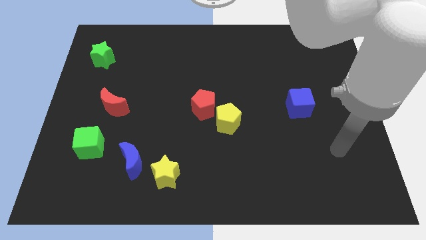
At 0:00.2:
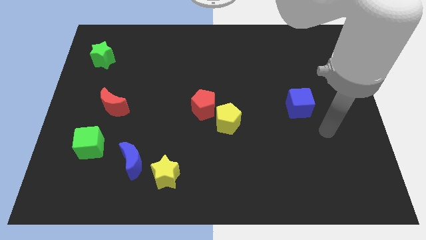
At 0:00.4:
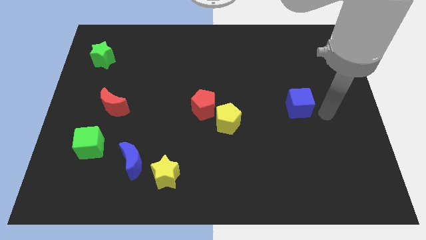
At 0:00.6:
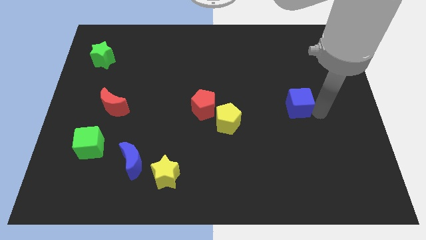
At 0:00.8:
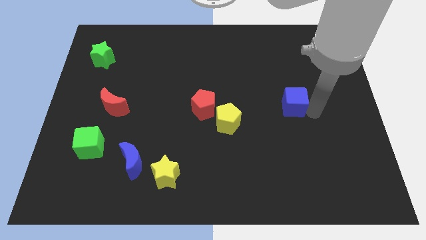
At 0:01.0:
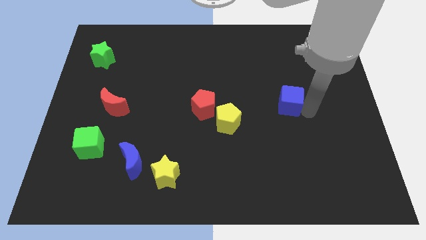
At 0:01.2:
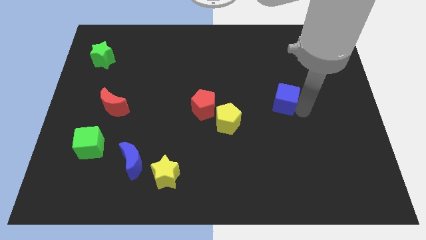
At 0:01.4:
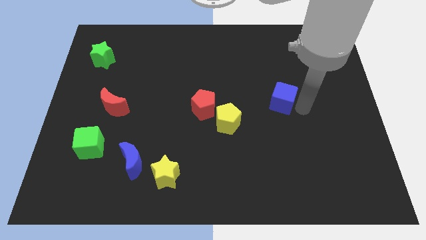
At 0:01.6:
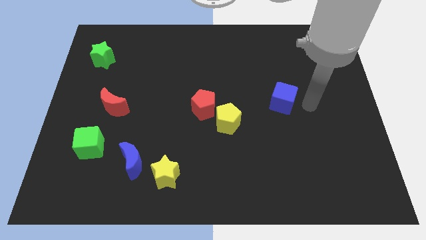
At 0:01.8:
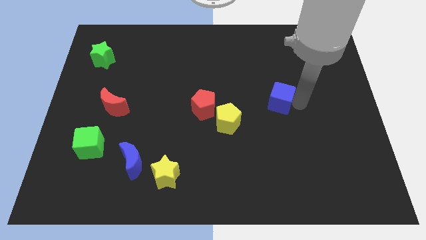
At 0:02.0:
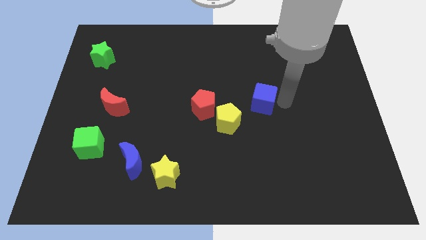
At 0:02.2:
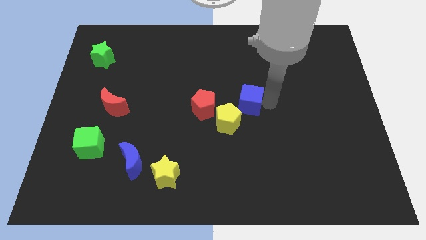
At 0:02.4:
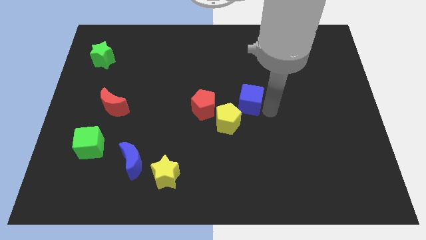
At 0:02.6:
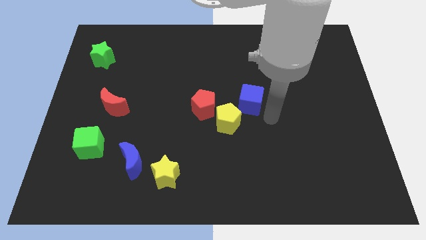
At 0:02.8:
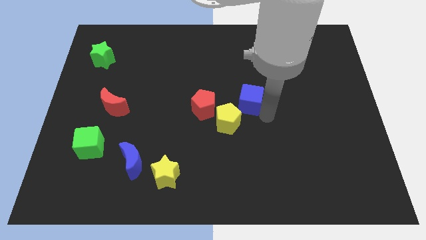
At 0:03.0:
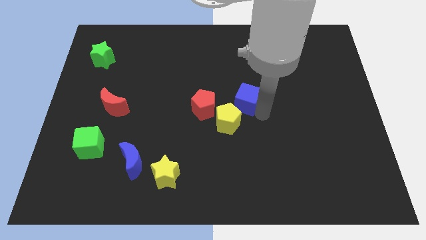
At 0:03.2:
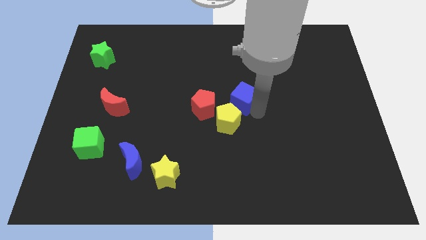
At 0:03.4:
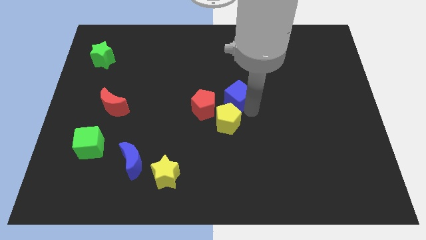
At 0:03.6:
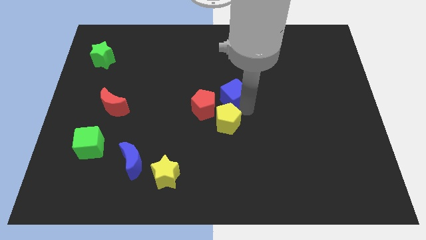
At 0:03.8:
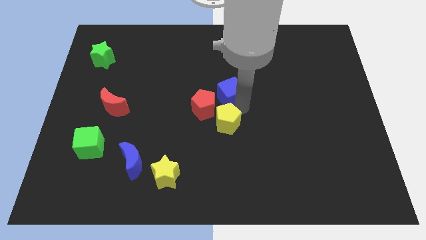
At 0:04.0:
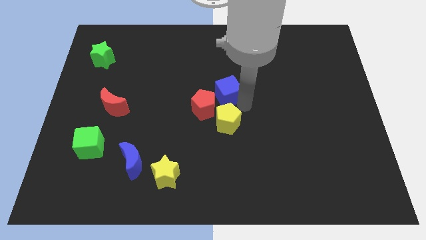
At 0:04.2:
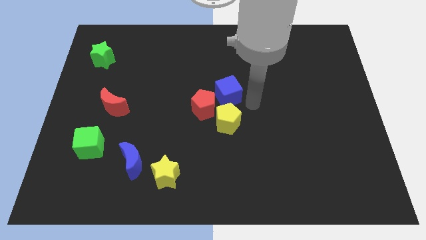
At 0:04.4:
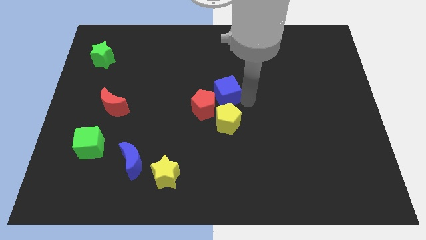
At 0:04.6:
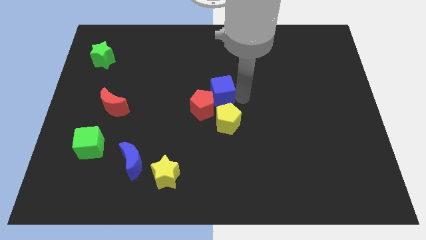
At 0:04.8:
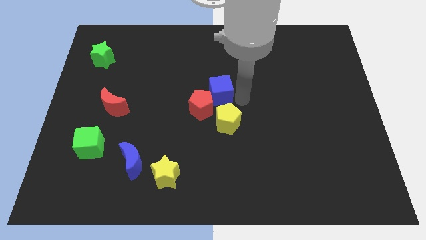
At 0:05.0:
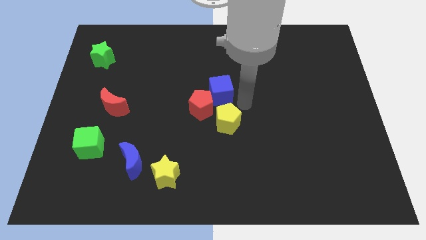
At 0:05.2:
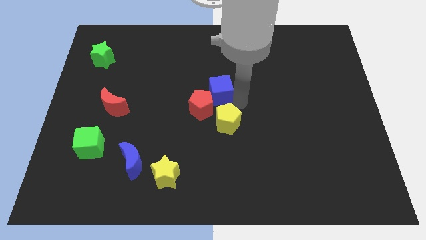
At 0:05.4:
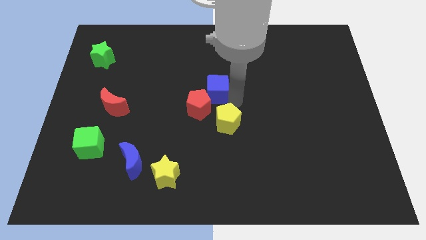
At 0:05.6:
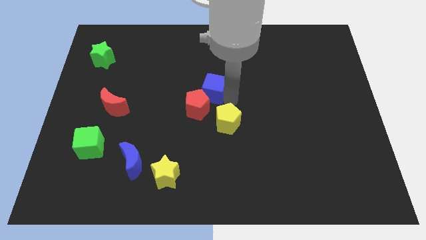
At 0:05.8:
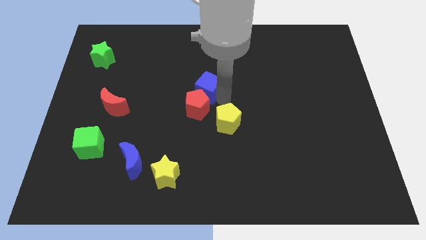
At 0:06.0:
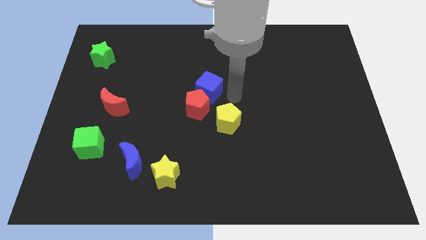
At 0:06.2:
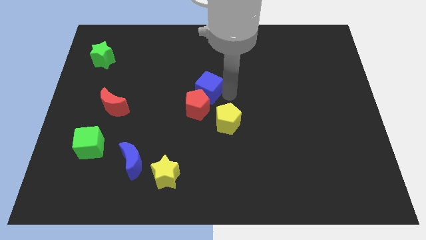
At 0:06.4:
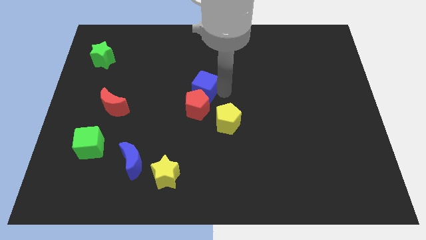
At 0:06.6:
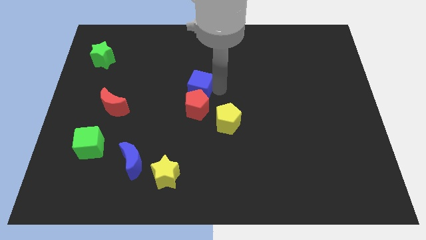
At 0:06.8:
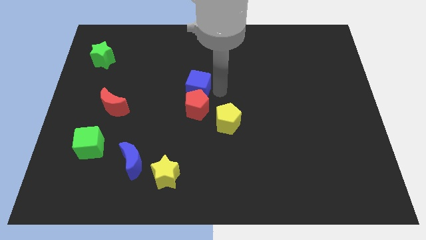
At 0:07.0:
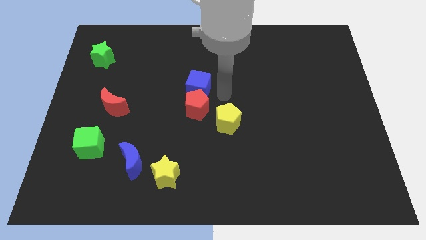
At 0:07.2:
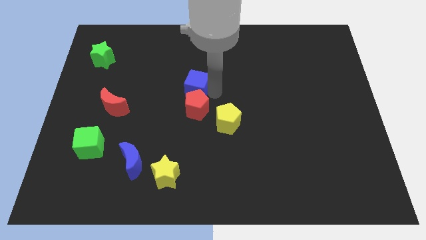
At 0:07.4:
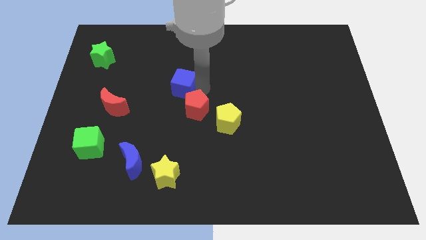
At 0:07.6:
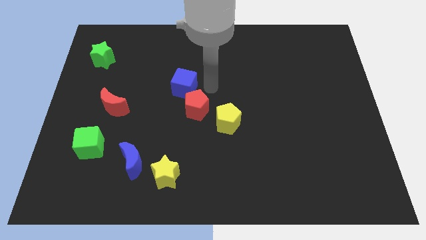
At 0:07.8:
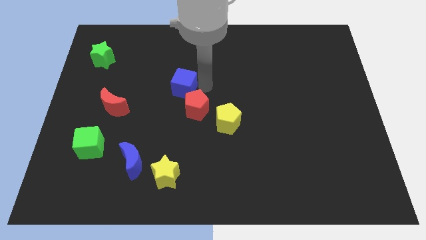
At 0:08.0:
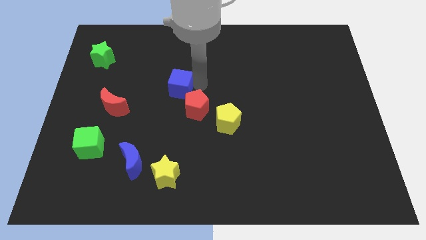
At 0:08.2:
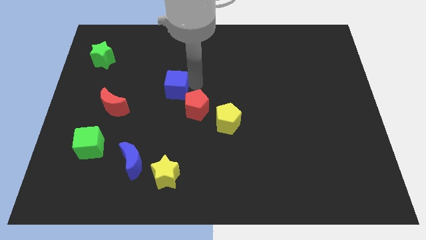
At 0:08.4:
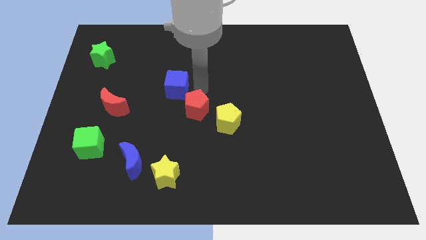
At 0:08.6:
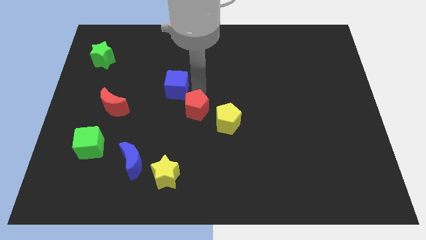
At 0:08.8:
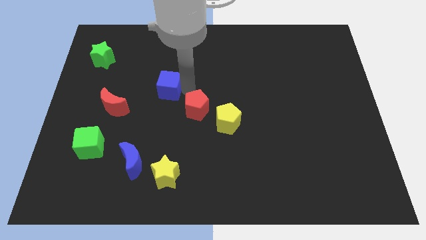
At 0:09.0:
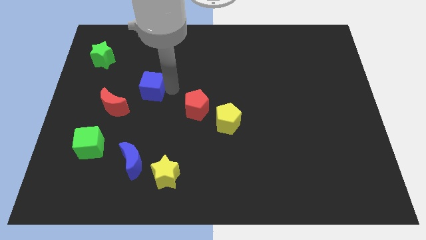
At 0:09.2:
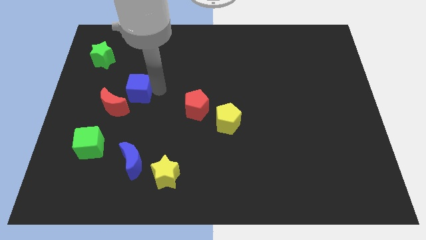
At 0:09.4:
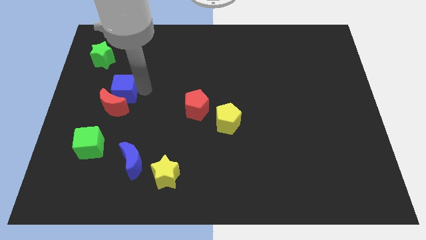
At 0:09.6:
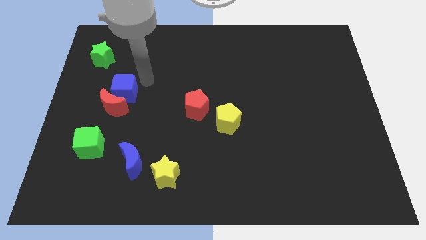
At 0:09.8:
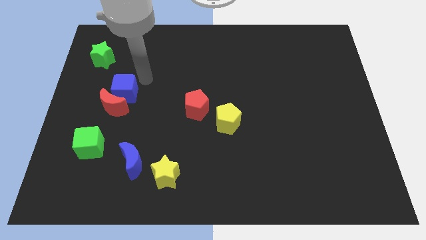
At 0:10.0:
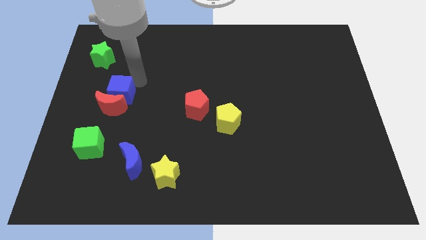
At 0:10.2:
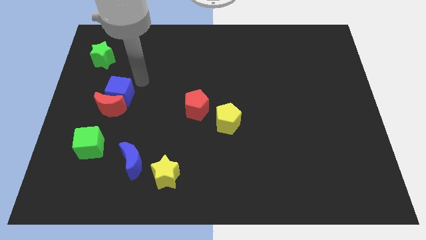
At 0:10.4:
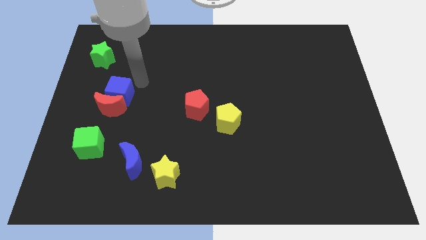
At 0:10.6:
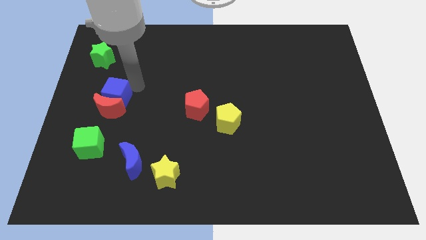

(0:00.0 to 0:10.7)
slide the blue cube to the top side of the green cube

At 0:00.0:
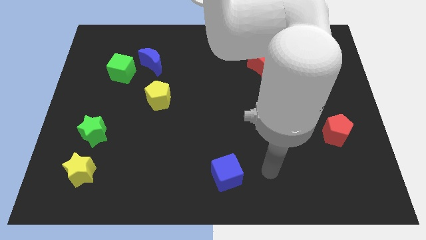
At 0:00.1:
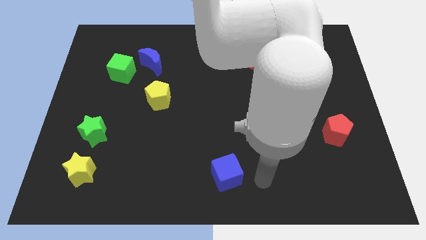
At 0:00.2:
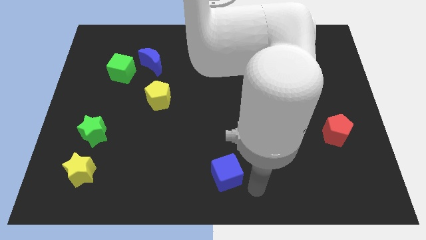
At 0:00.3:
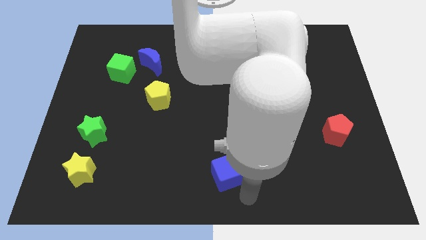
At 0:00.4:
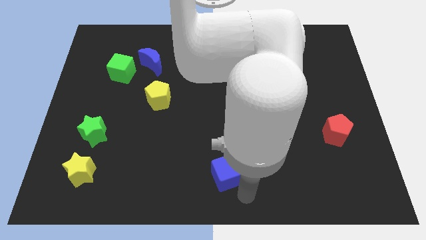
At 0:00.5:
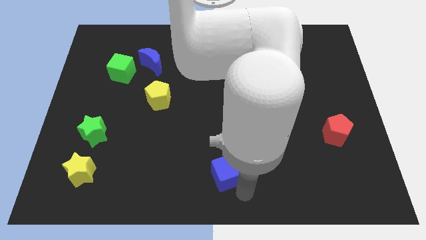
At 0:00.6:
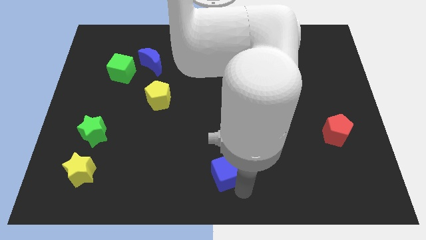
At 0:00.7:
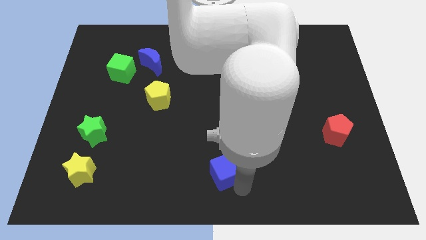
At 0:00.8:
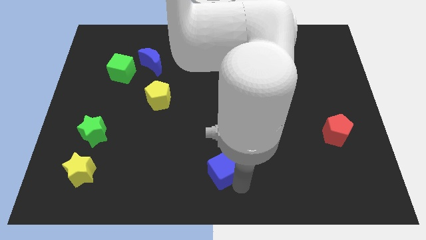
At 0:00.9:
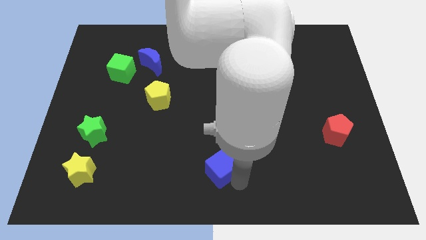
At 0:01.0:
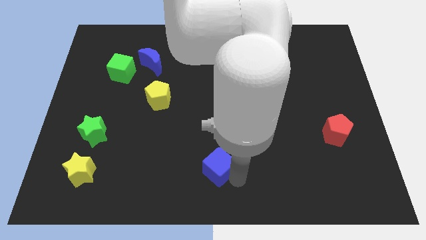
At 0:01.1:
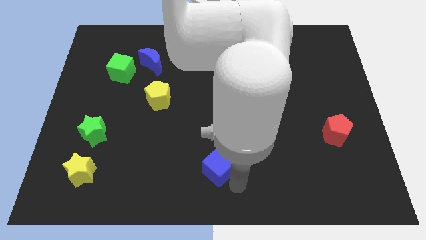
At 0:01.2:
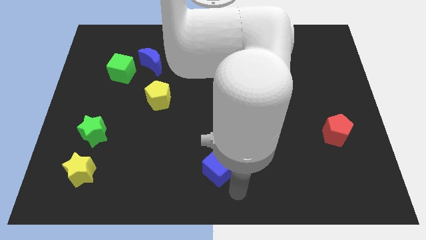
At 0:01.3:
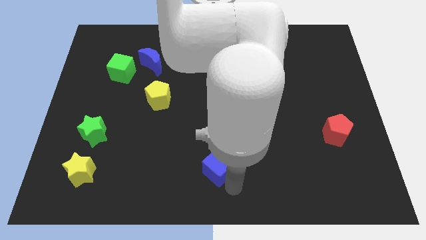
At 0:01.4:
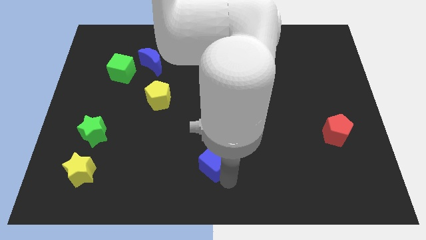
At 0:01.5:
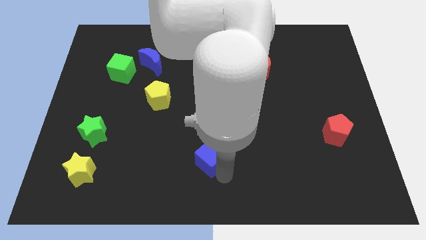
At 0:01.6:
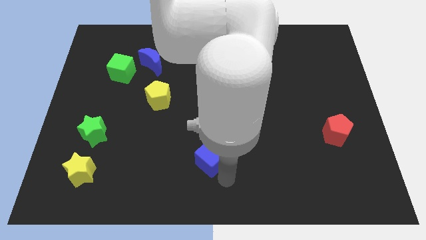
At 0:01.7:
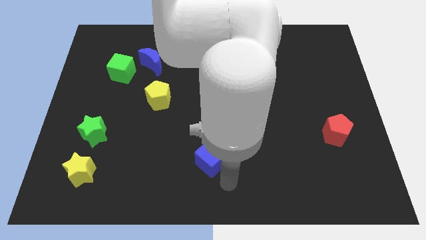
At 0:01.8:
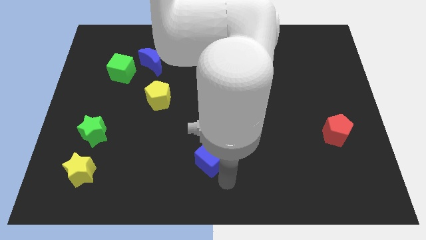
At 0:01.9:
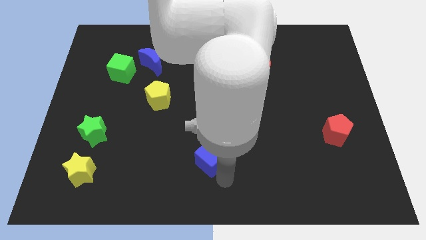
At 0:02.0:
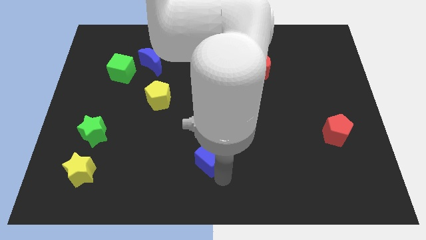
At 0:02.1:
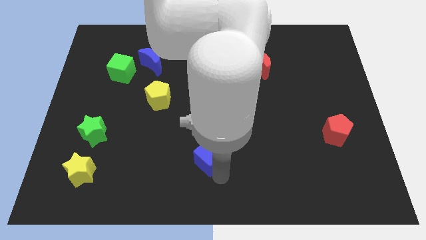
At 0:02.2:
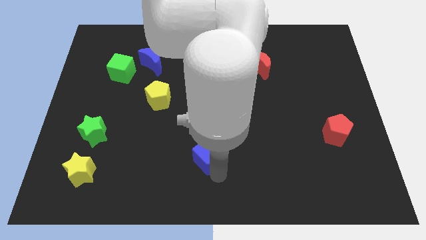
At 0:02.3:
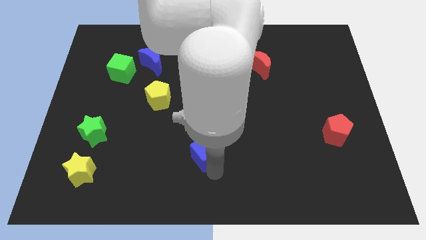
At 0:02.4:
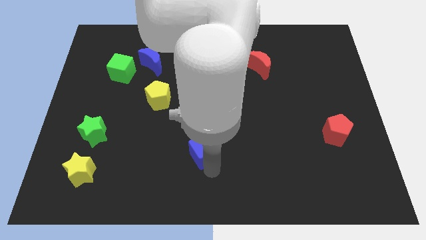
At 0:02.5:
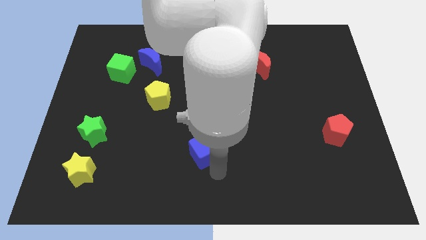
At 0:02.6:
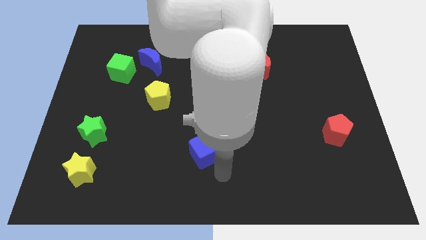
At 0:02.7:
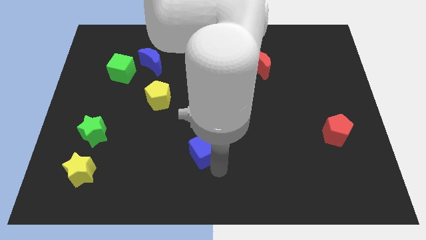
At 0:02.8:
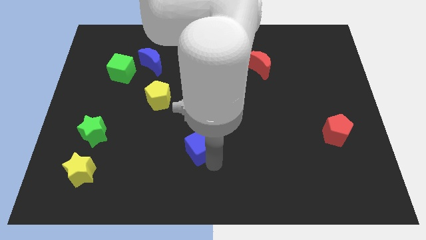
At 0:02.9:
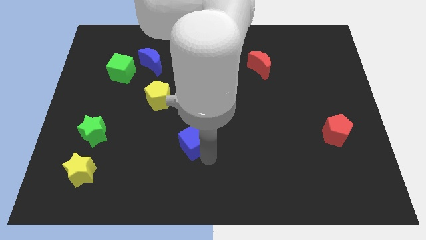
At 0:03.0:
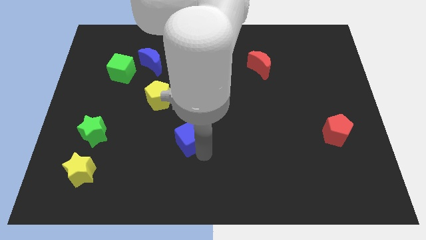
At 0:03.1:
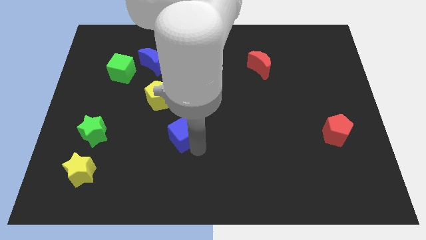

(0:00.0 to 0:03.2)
slide the blue cube to the bottom right of the yellow pentagon
